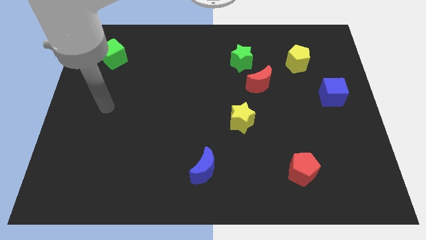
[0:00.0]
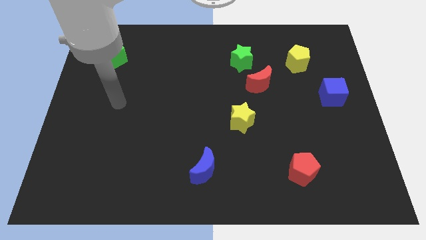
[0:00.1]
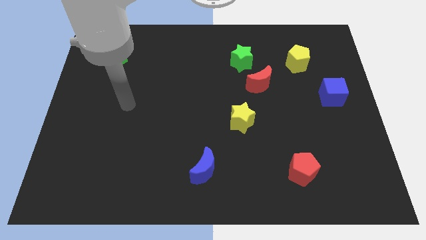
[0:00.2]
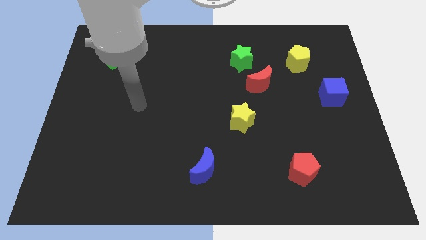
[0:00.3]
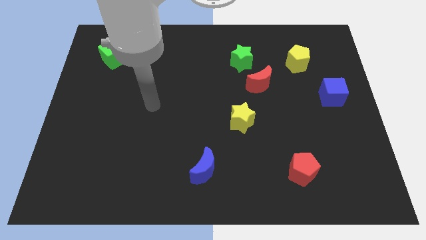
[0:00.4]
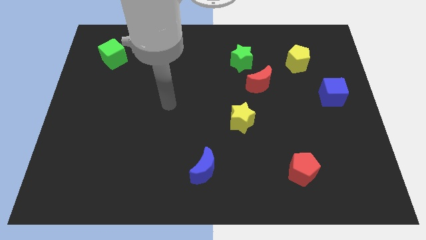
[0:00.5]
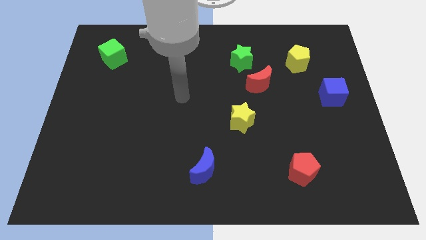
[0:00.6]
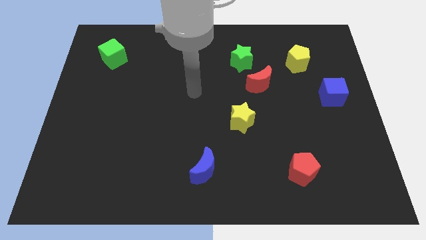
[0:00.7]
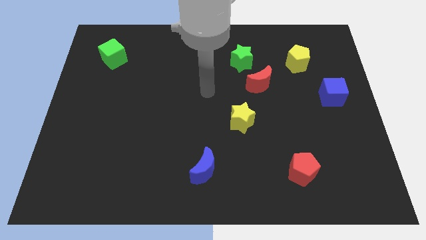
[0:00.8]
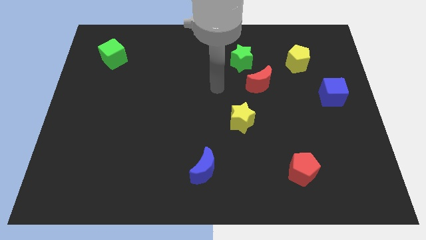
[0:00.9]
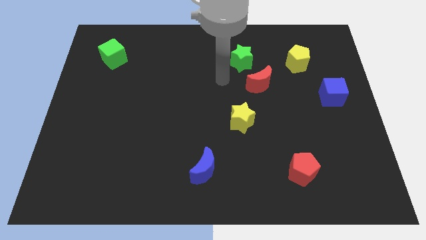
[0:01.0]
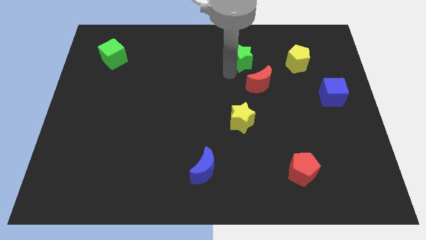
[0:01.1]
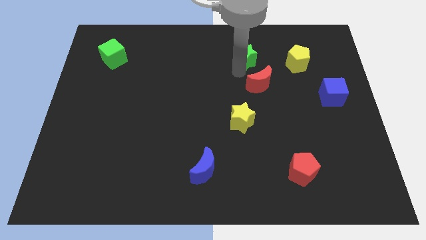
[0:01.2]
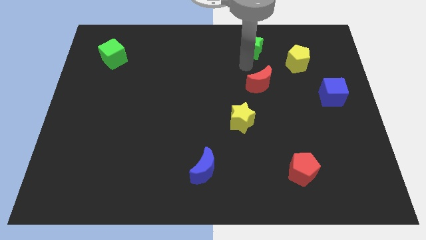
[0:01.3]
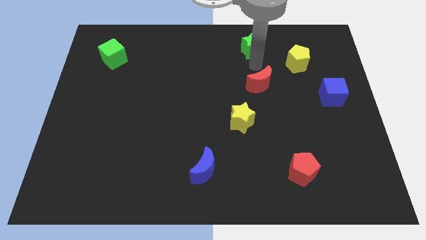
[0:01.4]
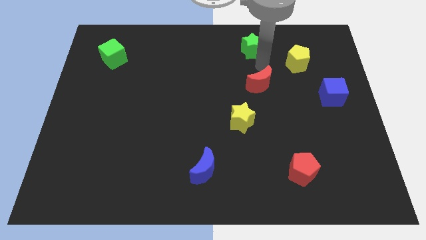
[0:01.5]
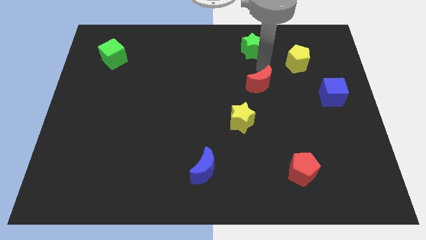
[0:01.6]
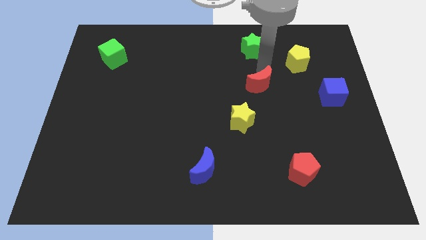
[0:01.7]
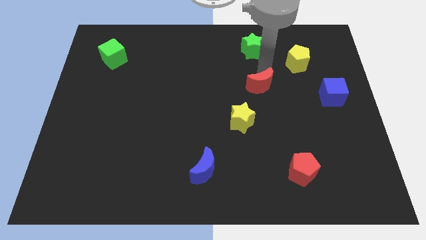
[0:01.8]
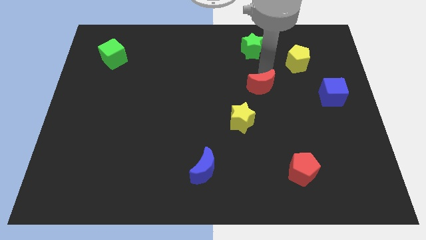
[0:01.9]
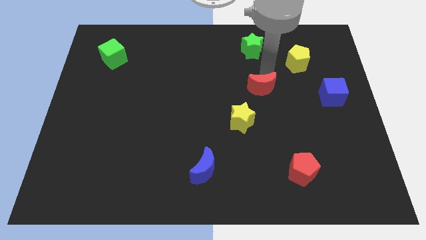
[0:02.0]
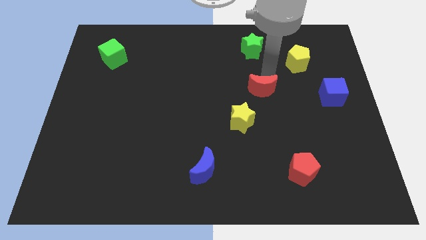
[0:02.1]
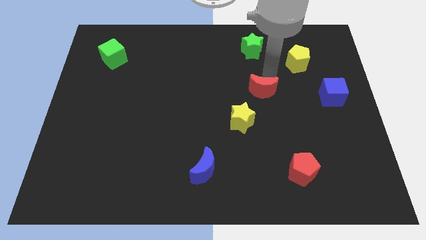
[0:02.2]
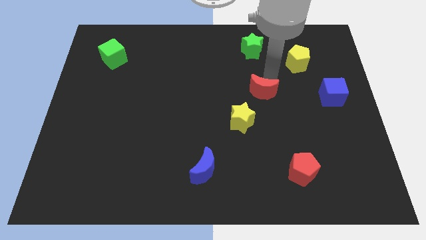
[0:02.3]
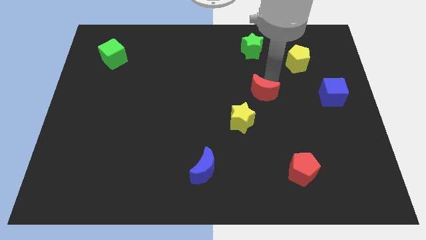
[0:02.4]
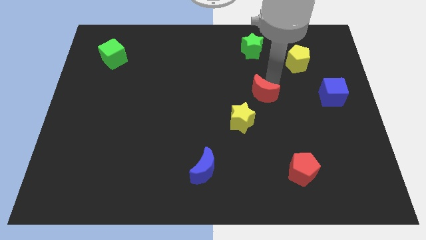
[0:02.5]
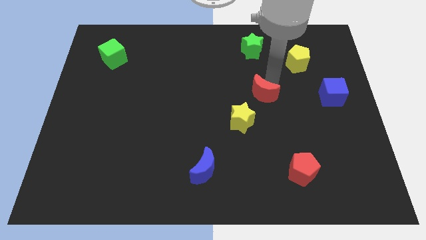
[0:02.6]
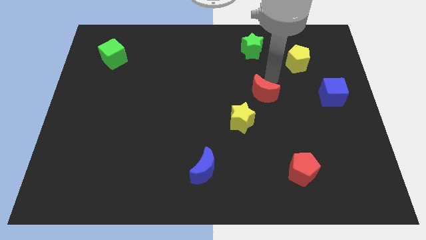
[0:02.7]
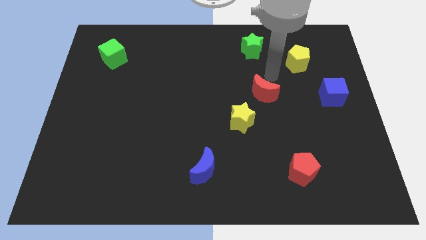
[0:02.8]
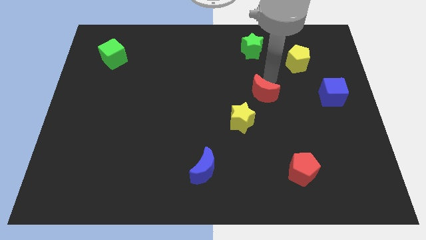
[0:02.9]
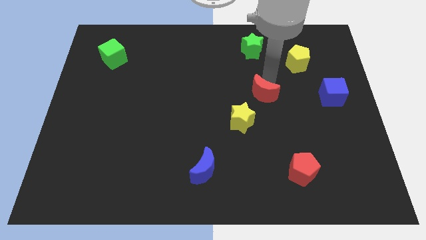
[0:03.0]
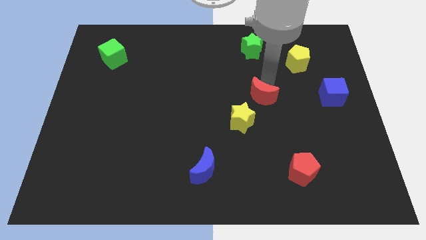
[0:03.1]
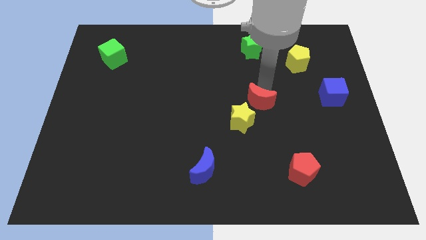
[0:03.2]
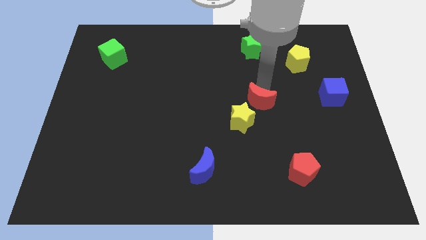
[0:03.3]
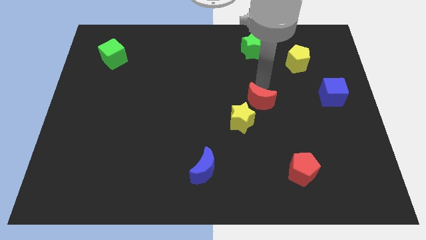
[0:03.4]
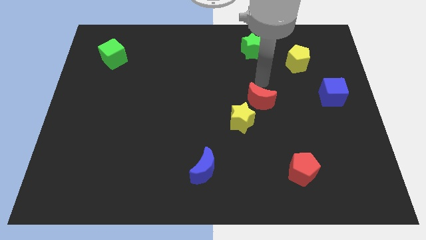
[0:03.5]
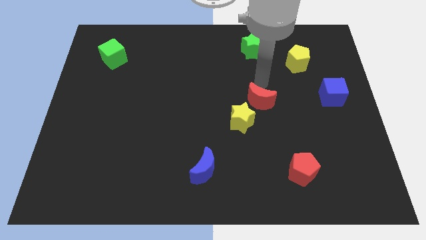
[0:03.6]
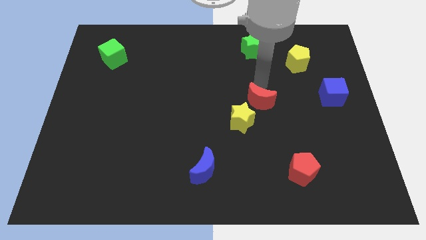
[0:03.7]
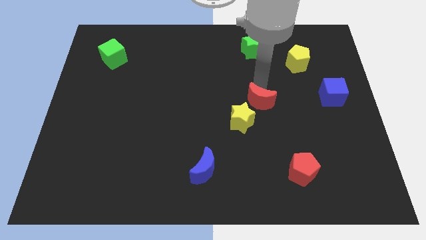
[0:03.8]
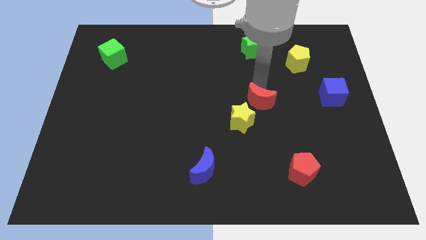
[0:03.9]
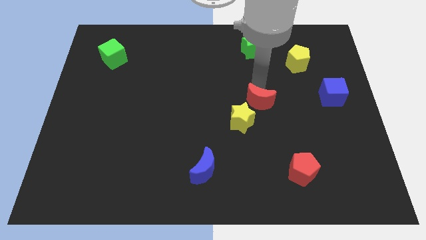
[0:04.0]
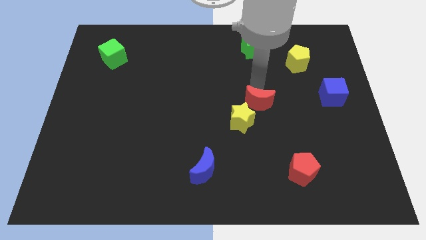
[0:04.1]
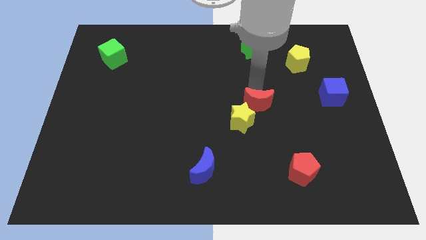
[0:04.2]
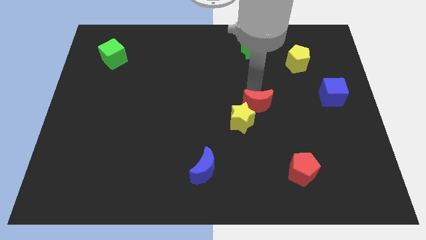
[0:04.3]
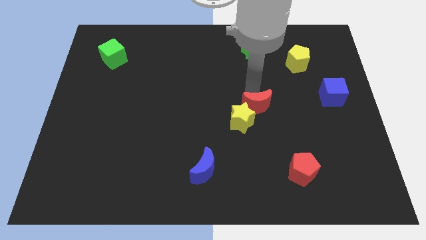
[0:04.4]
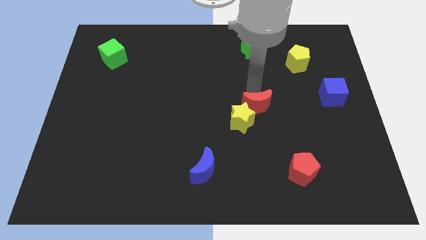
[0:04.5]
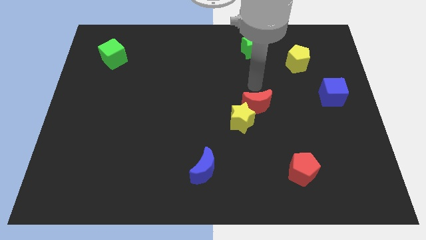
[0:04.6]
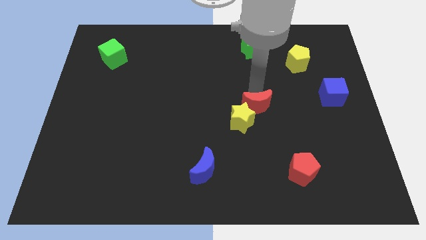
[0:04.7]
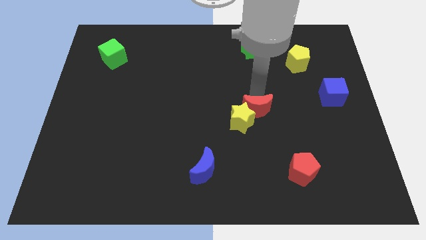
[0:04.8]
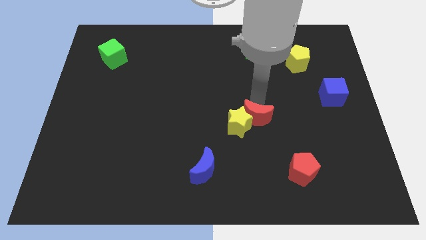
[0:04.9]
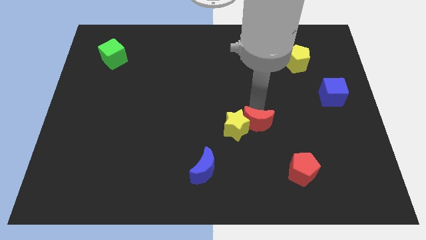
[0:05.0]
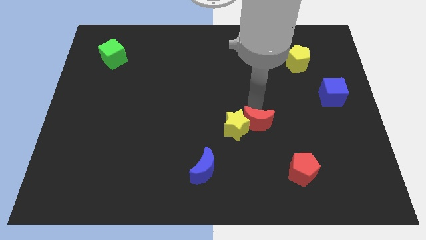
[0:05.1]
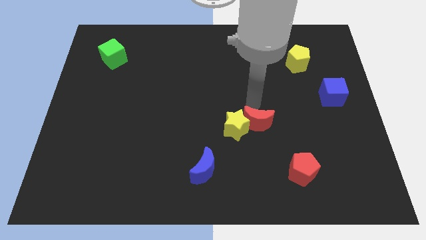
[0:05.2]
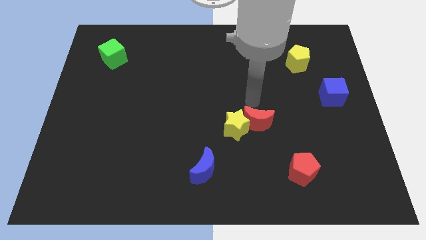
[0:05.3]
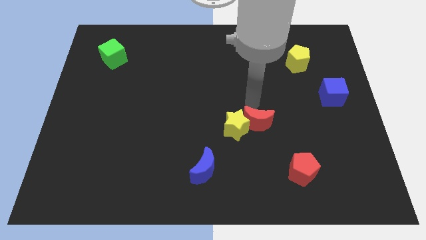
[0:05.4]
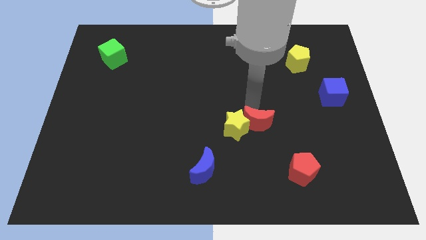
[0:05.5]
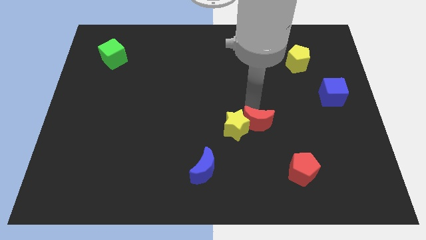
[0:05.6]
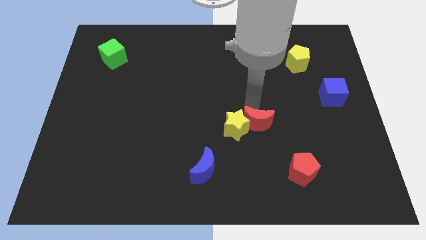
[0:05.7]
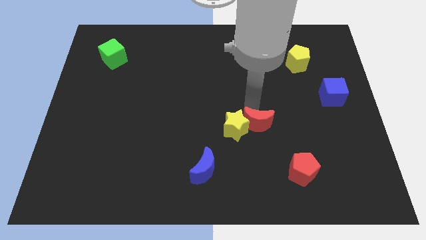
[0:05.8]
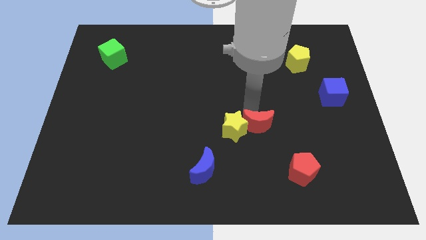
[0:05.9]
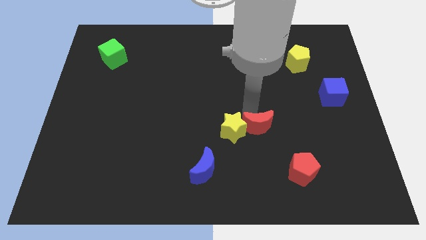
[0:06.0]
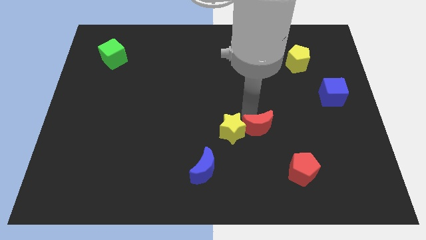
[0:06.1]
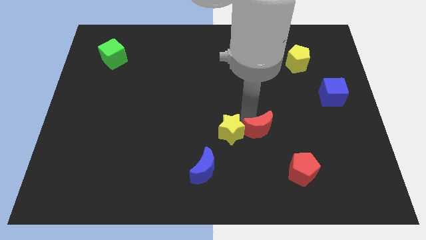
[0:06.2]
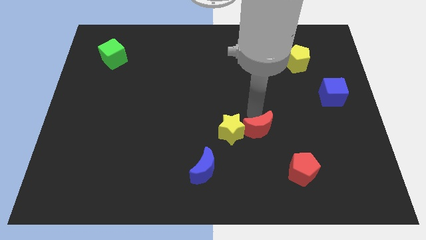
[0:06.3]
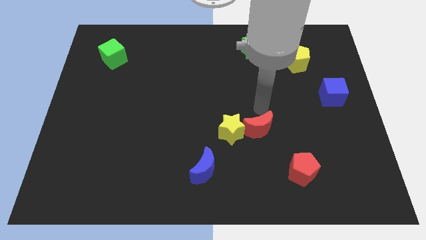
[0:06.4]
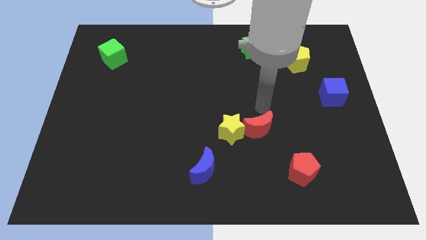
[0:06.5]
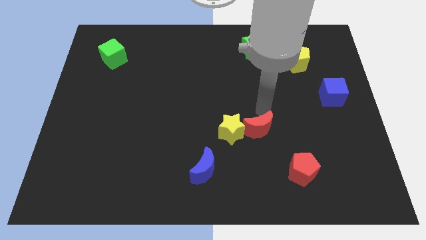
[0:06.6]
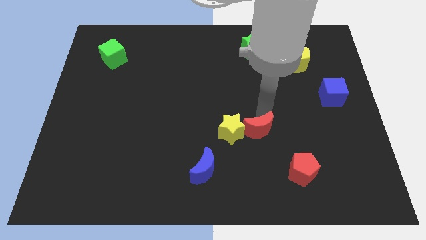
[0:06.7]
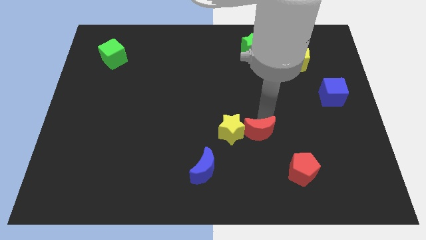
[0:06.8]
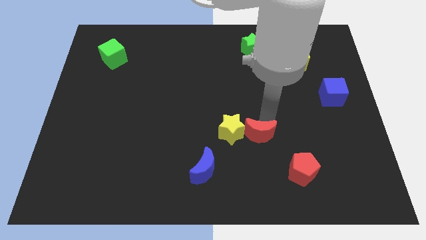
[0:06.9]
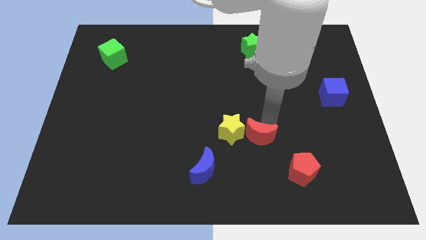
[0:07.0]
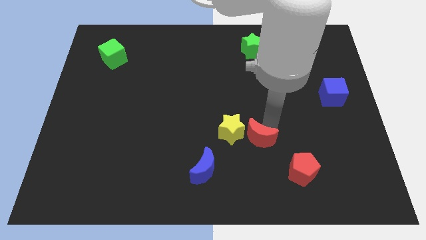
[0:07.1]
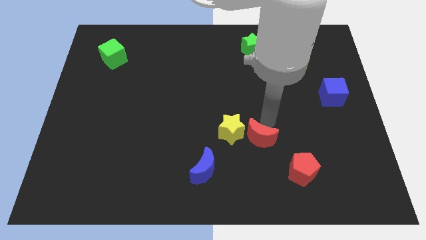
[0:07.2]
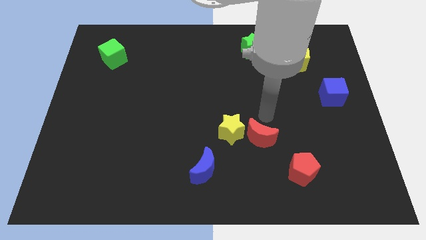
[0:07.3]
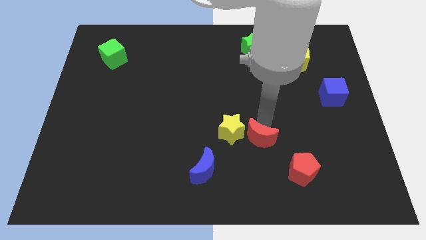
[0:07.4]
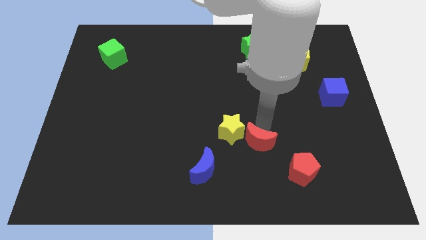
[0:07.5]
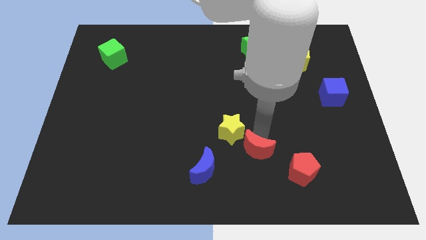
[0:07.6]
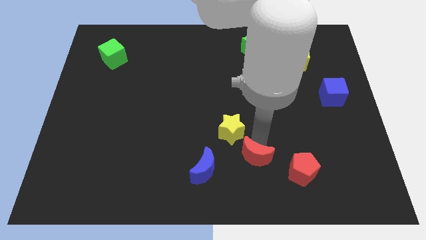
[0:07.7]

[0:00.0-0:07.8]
push the red moon just left of the red pentagon

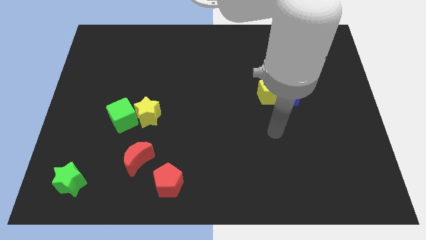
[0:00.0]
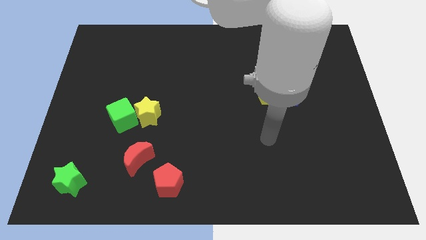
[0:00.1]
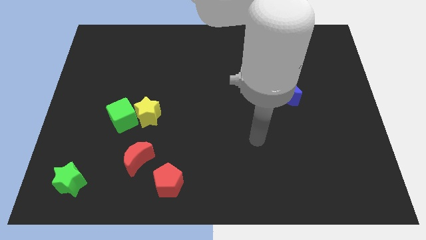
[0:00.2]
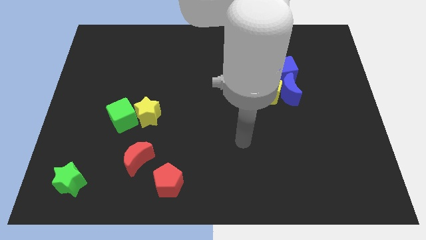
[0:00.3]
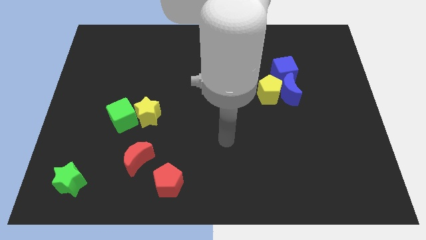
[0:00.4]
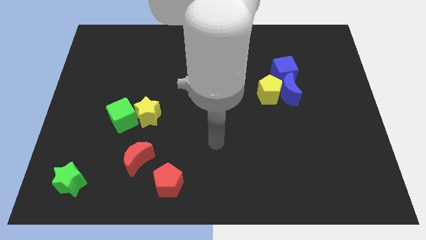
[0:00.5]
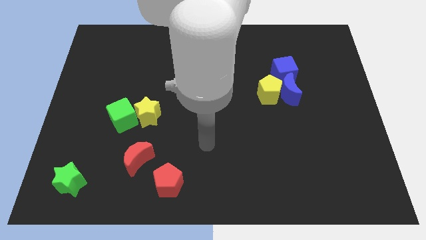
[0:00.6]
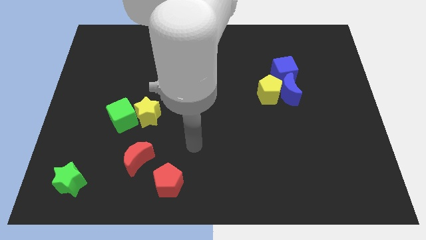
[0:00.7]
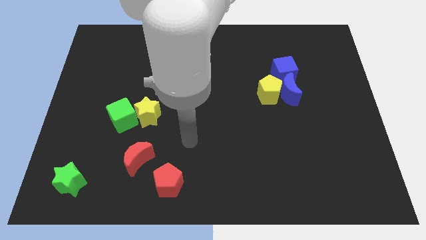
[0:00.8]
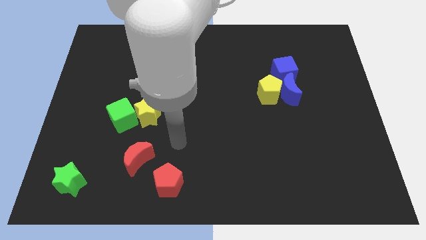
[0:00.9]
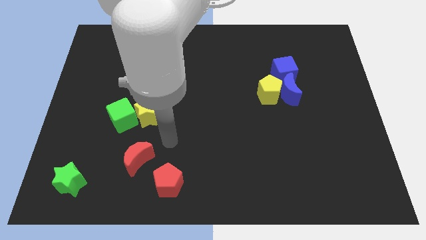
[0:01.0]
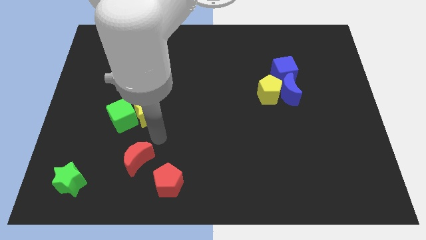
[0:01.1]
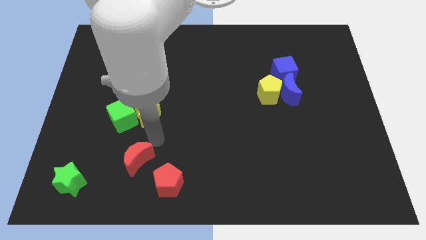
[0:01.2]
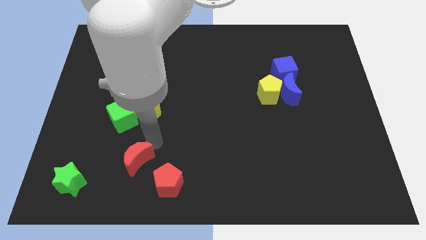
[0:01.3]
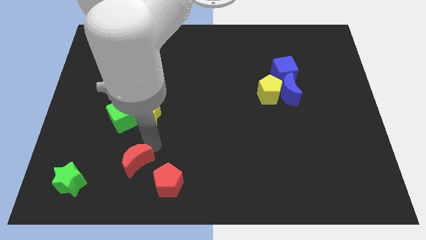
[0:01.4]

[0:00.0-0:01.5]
slide the red moon left of the red pentagon
